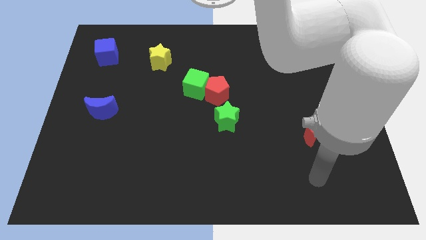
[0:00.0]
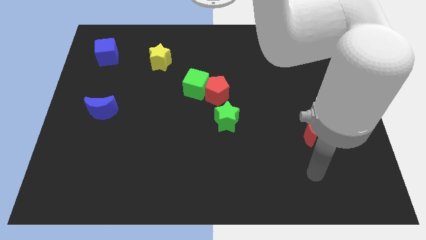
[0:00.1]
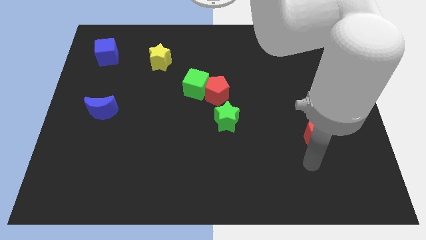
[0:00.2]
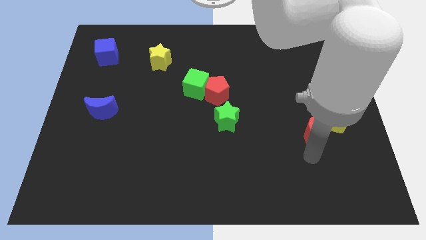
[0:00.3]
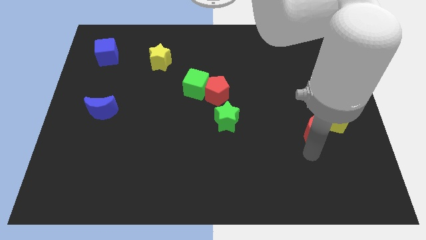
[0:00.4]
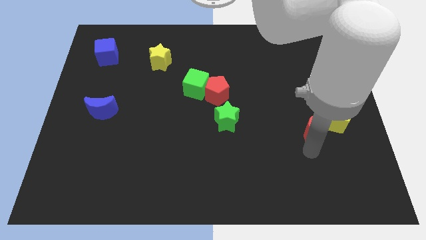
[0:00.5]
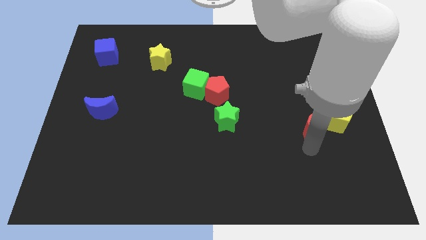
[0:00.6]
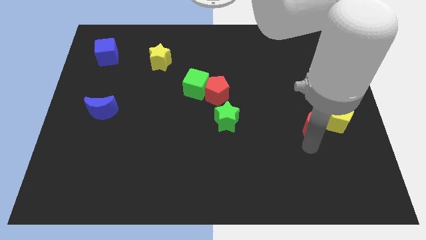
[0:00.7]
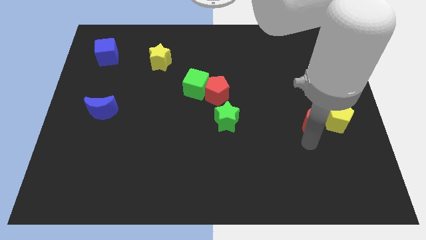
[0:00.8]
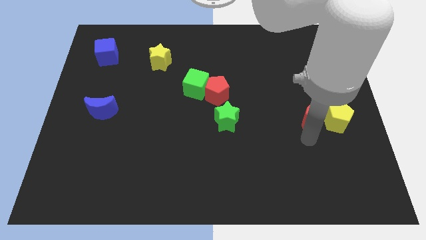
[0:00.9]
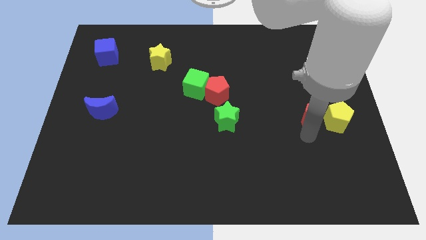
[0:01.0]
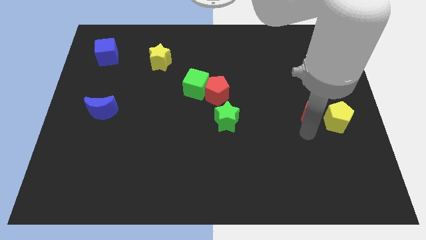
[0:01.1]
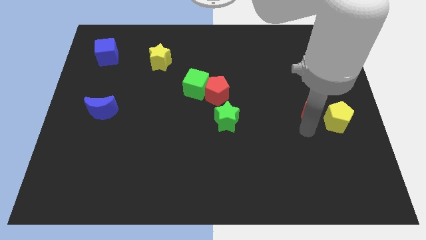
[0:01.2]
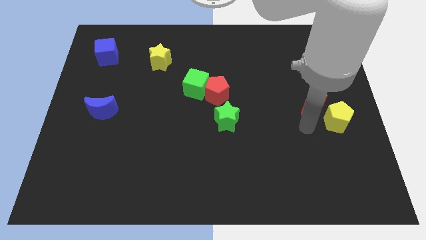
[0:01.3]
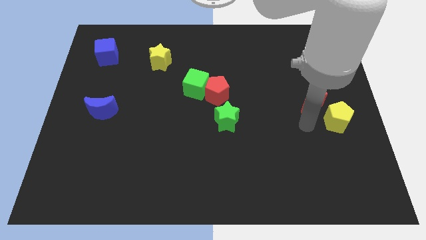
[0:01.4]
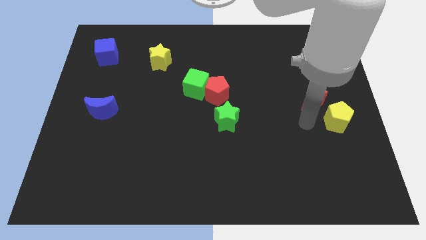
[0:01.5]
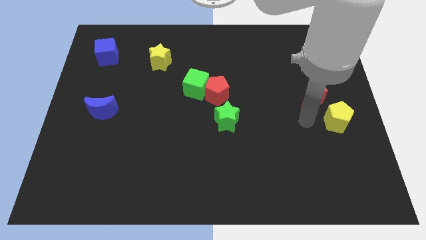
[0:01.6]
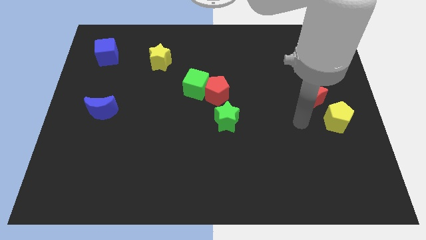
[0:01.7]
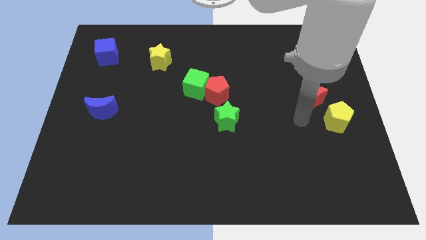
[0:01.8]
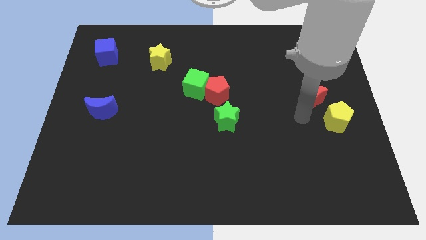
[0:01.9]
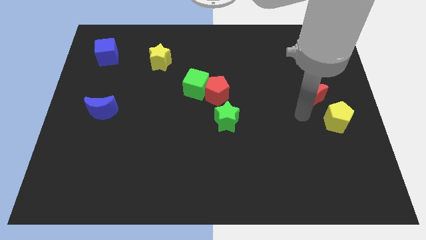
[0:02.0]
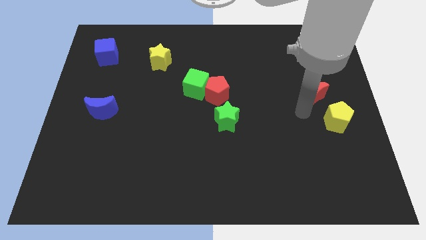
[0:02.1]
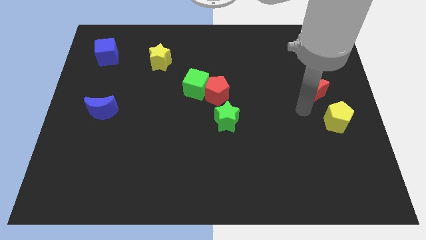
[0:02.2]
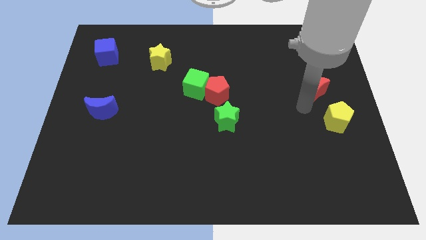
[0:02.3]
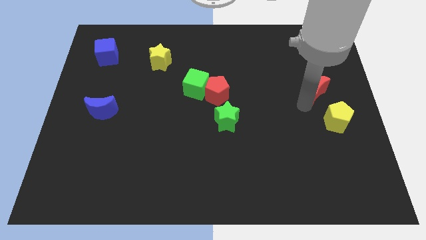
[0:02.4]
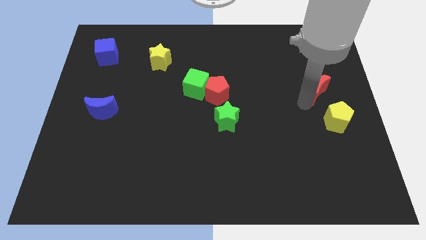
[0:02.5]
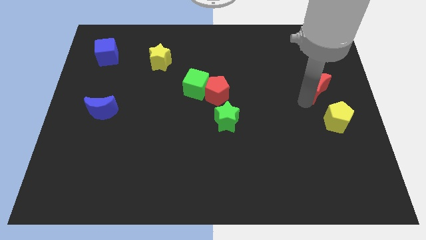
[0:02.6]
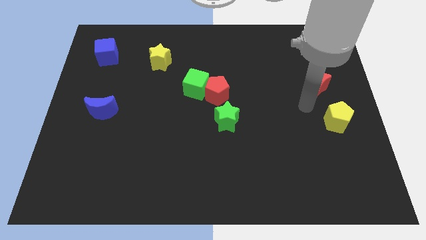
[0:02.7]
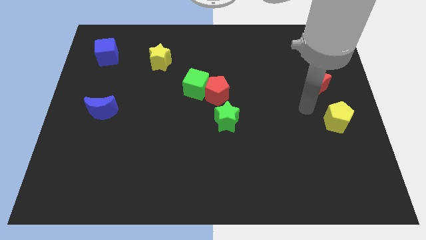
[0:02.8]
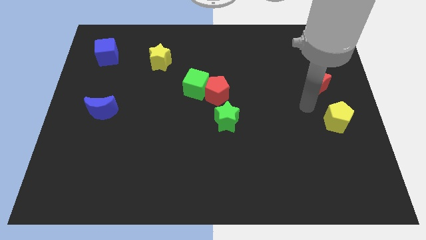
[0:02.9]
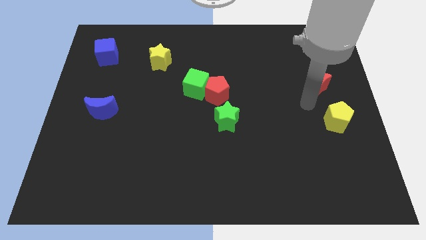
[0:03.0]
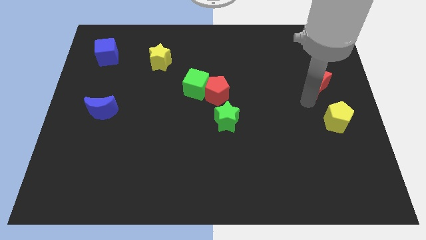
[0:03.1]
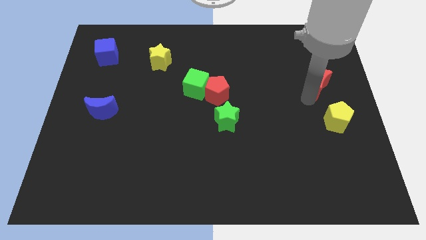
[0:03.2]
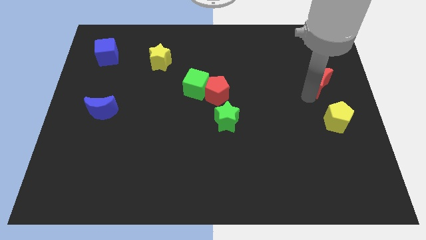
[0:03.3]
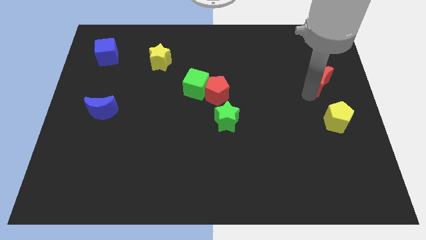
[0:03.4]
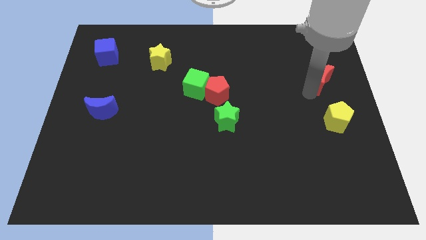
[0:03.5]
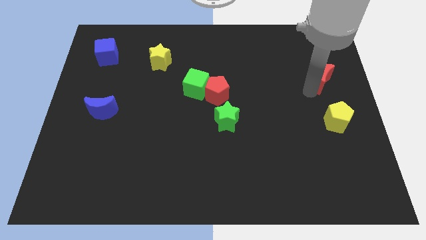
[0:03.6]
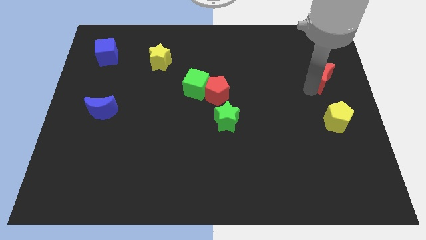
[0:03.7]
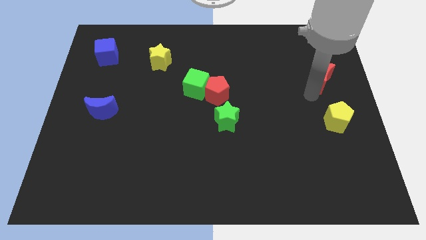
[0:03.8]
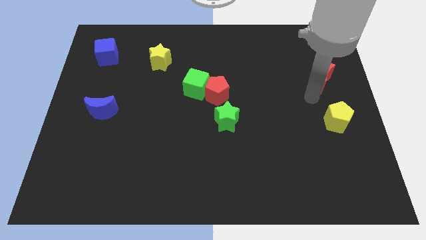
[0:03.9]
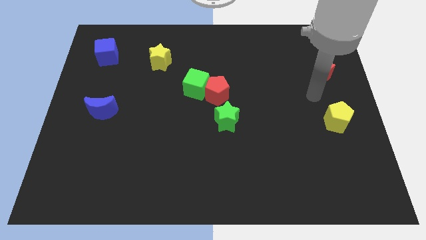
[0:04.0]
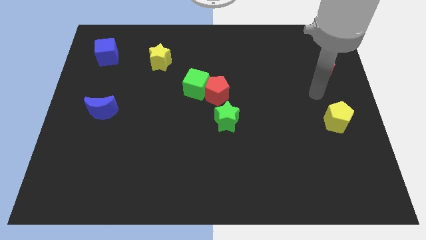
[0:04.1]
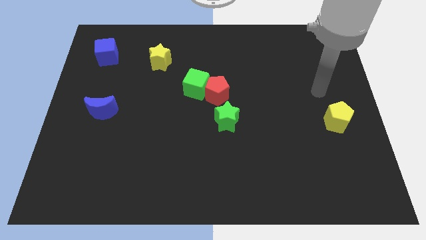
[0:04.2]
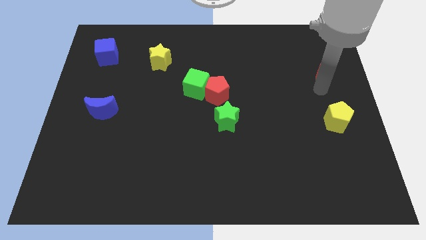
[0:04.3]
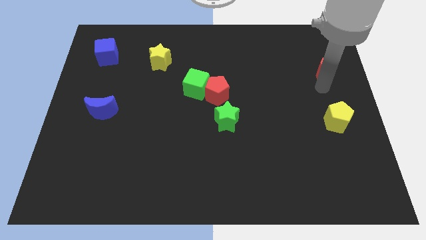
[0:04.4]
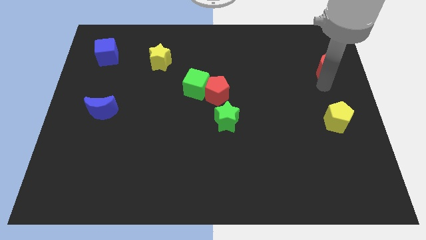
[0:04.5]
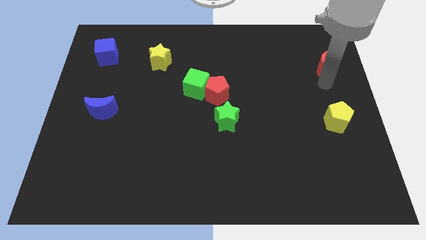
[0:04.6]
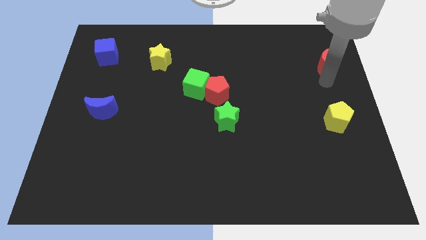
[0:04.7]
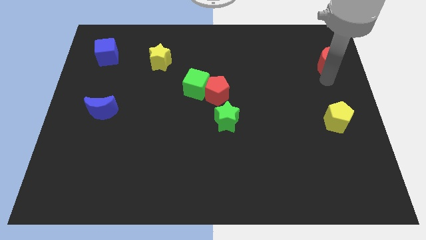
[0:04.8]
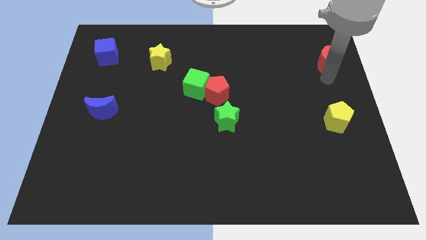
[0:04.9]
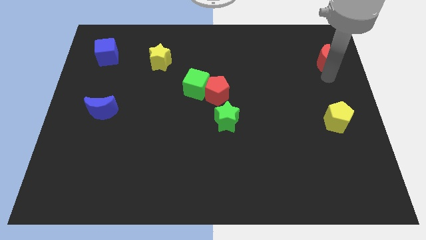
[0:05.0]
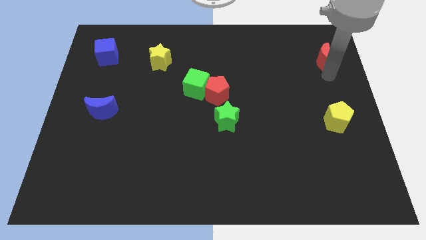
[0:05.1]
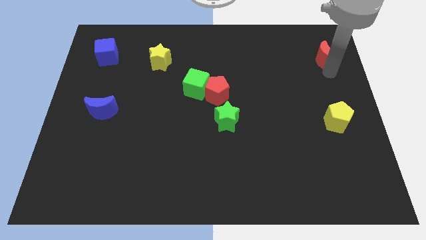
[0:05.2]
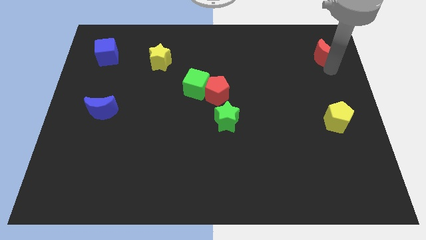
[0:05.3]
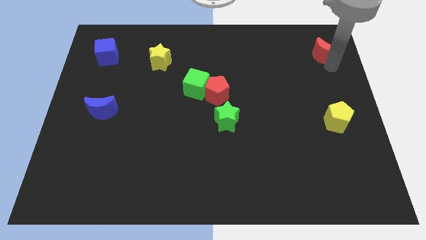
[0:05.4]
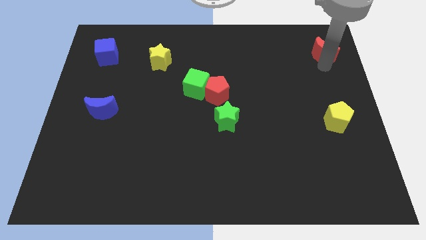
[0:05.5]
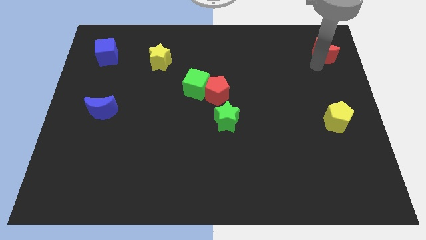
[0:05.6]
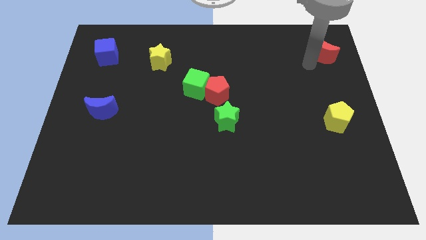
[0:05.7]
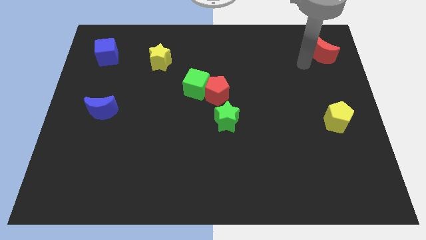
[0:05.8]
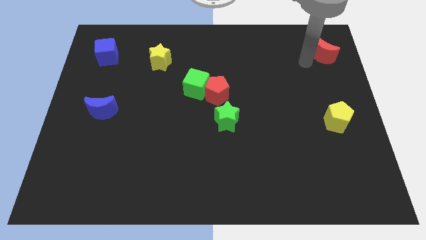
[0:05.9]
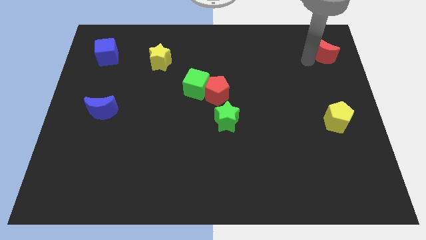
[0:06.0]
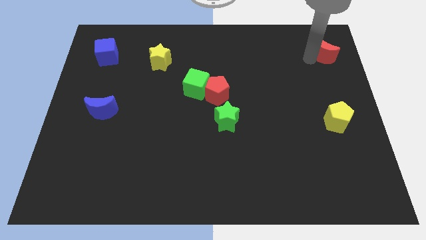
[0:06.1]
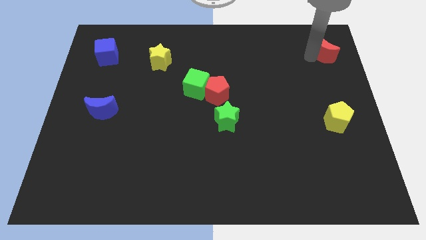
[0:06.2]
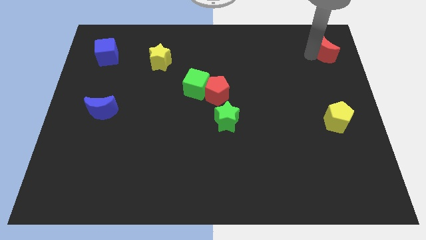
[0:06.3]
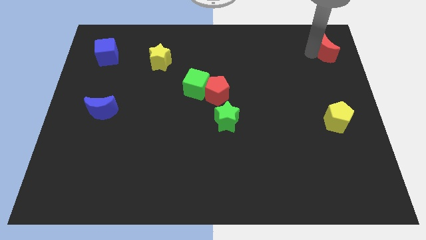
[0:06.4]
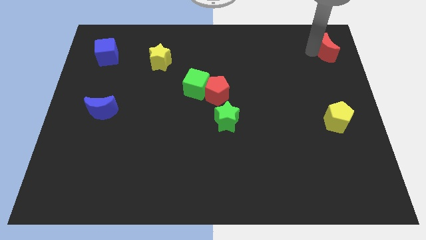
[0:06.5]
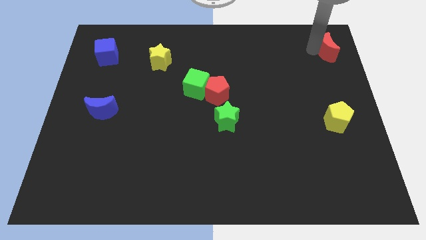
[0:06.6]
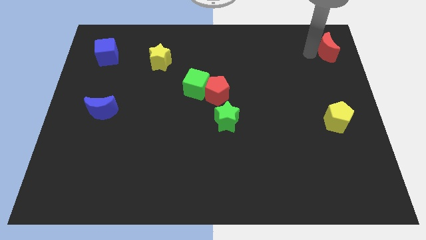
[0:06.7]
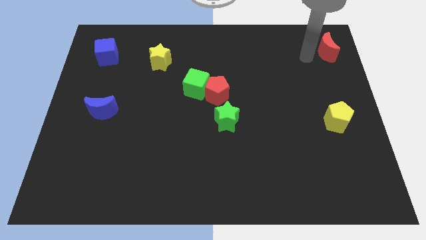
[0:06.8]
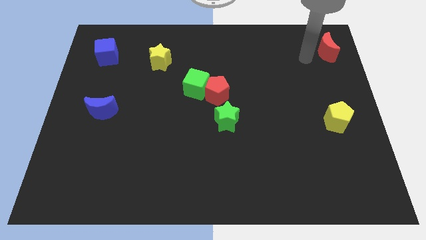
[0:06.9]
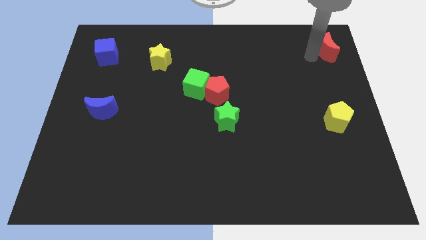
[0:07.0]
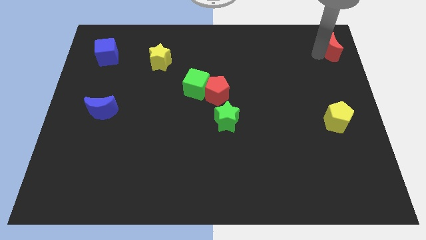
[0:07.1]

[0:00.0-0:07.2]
push the red moon to the top right
